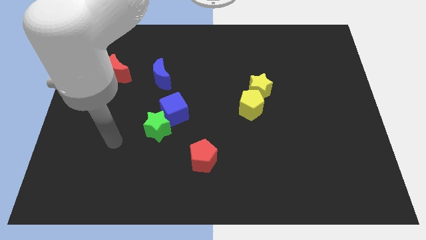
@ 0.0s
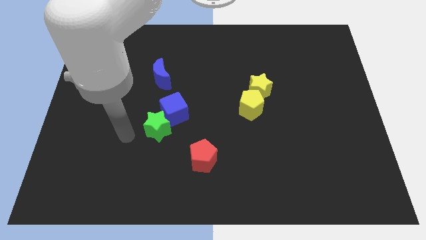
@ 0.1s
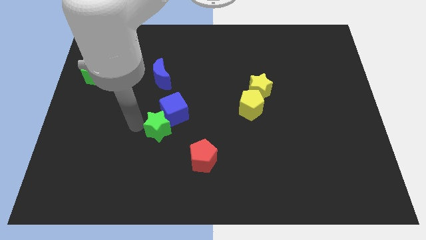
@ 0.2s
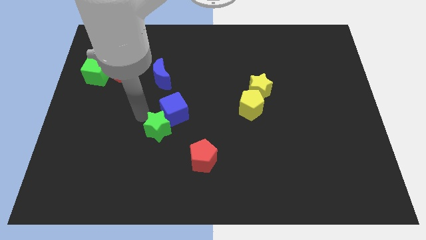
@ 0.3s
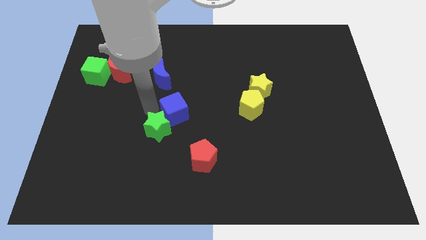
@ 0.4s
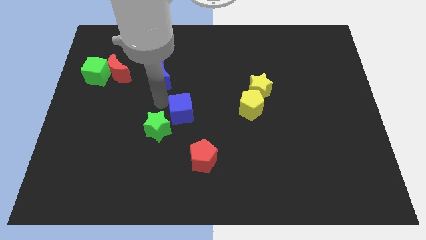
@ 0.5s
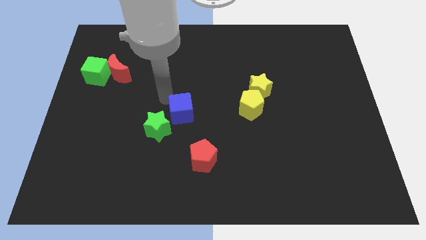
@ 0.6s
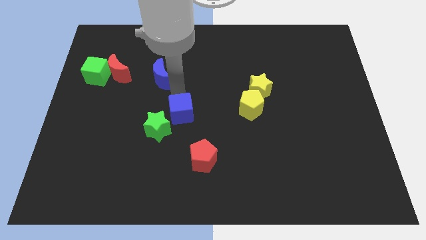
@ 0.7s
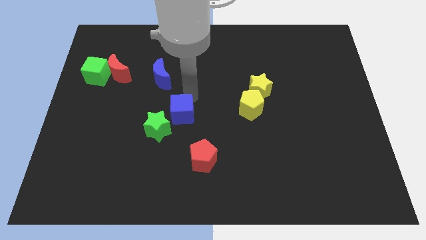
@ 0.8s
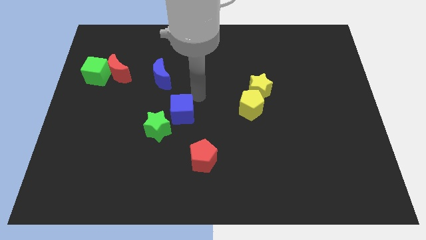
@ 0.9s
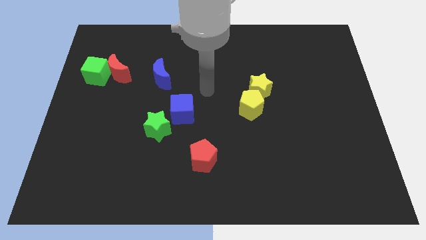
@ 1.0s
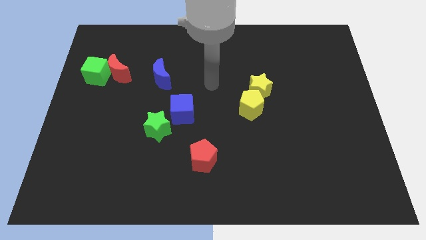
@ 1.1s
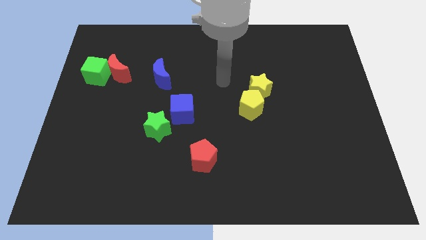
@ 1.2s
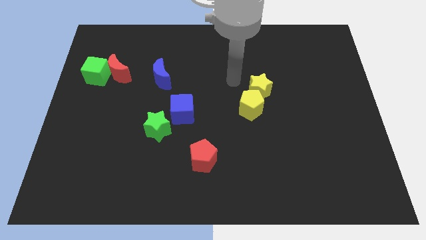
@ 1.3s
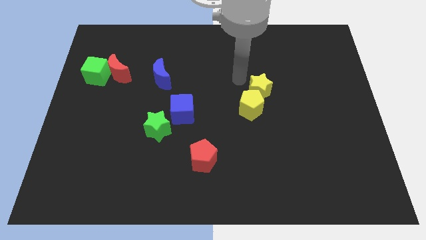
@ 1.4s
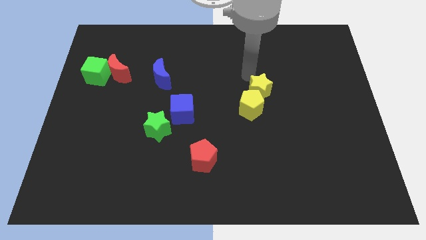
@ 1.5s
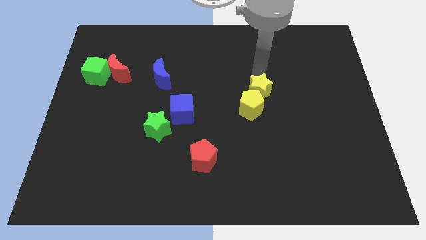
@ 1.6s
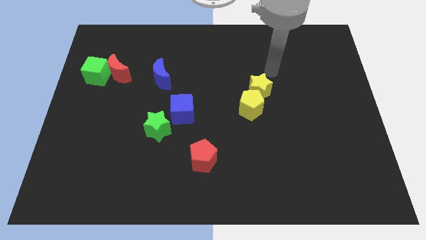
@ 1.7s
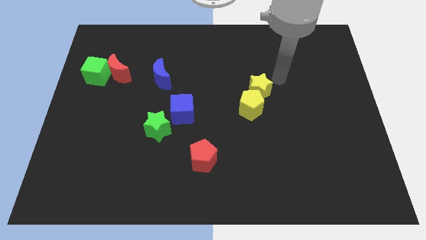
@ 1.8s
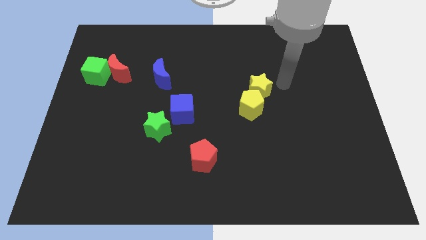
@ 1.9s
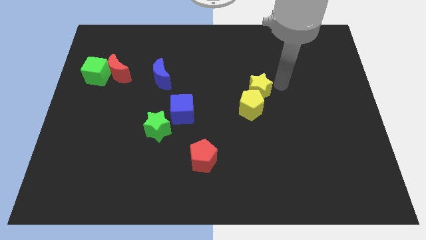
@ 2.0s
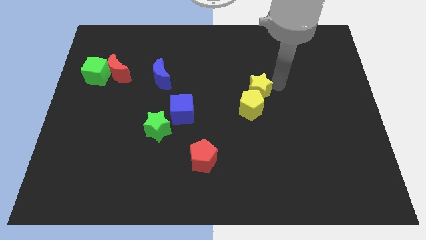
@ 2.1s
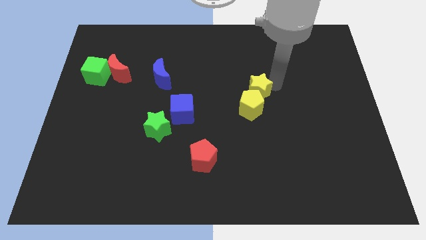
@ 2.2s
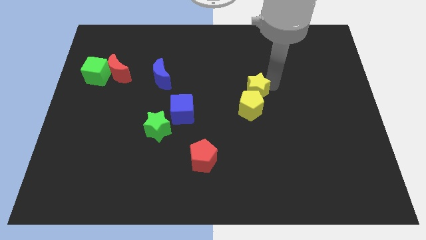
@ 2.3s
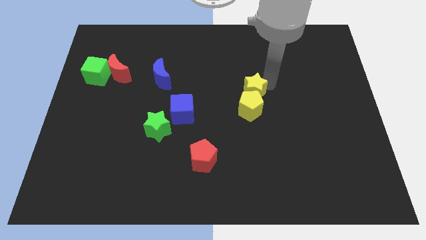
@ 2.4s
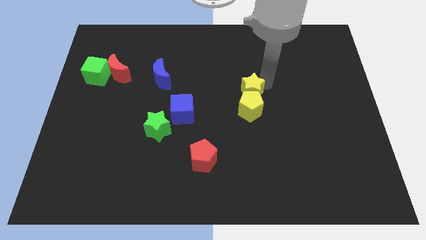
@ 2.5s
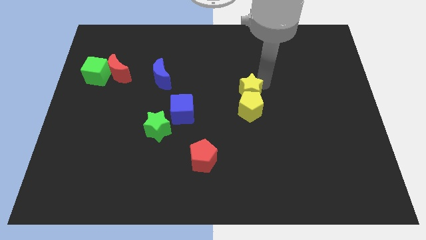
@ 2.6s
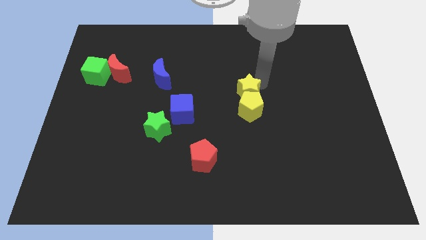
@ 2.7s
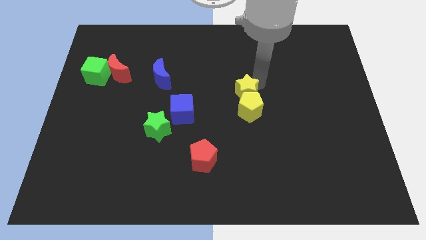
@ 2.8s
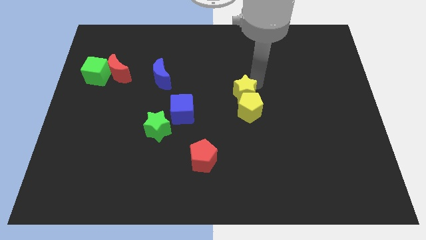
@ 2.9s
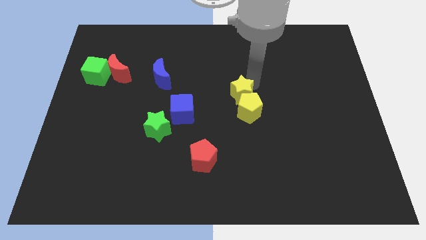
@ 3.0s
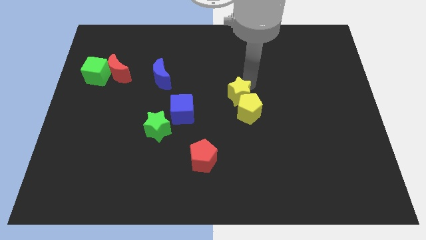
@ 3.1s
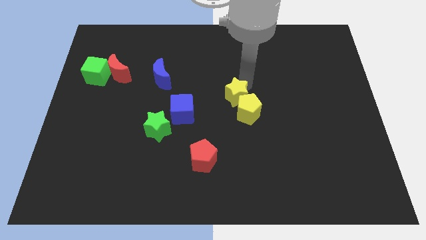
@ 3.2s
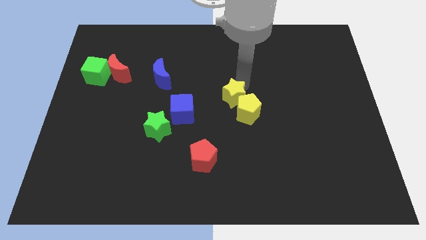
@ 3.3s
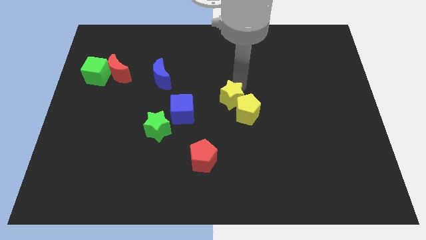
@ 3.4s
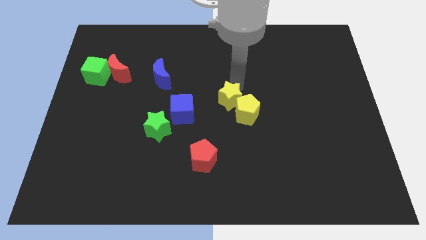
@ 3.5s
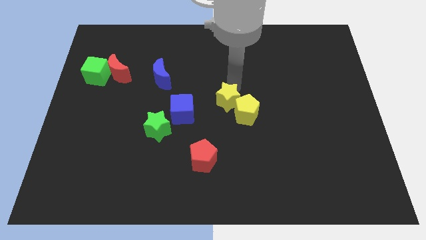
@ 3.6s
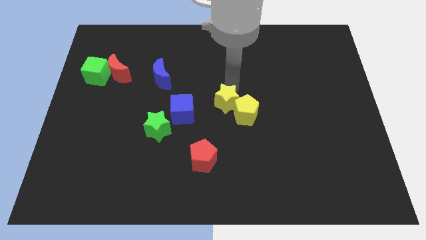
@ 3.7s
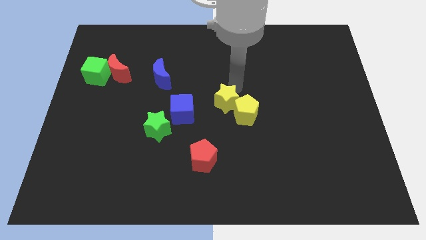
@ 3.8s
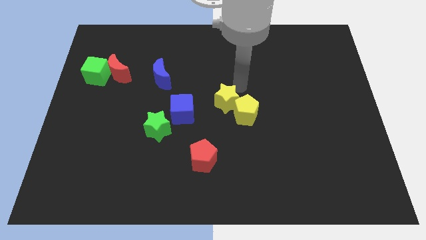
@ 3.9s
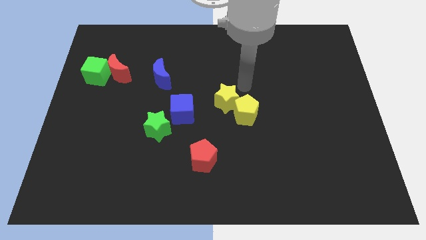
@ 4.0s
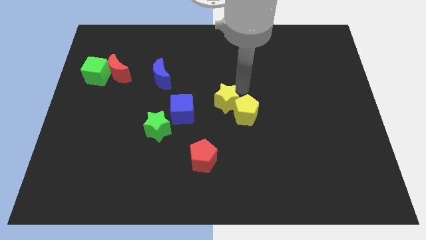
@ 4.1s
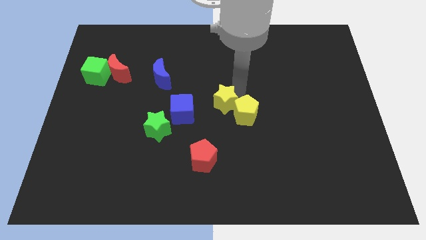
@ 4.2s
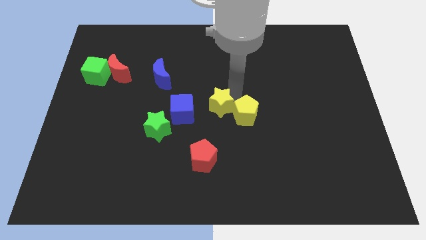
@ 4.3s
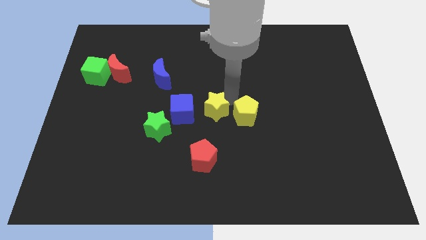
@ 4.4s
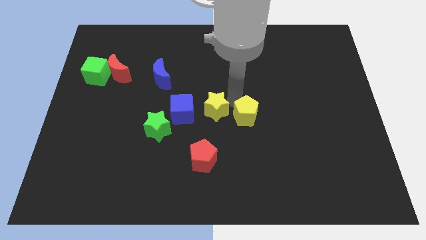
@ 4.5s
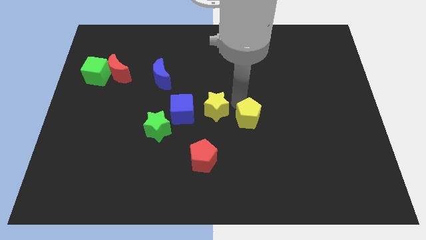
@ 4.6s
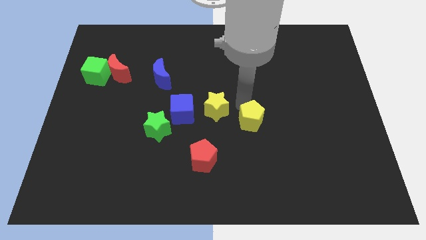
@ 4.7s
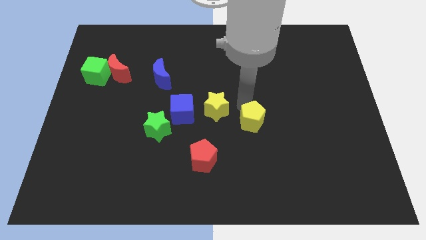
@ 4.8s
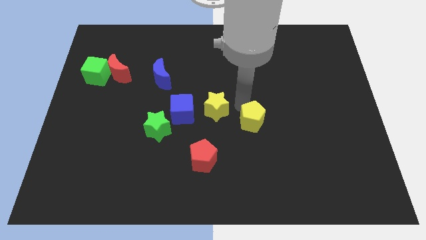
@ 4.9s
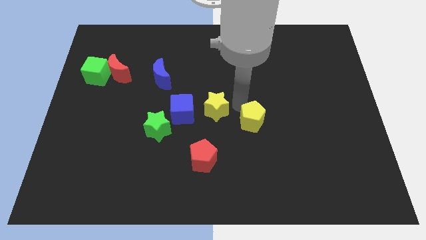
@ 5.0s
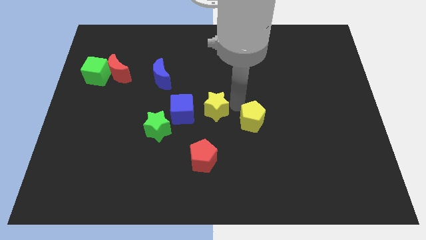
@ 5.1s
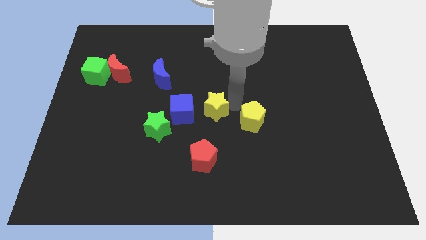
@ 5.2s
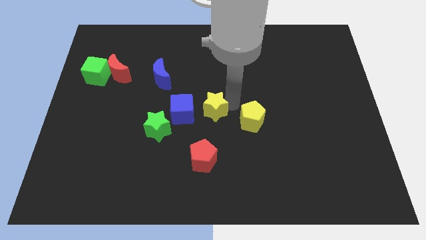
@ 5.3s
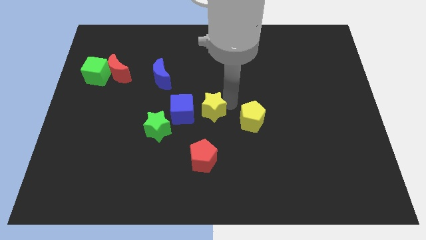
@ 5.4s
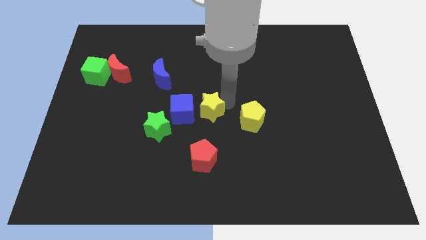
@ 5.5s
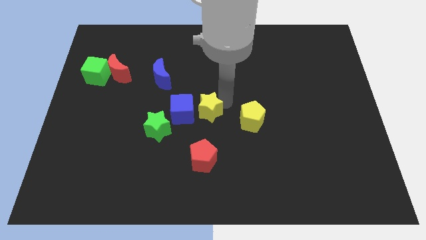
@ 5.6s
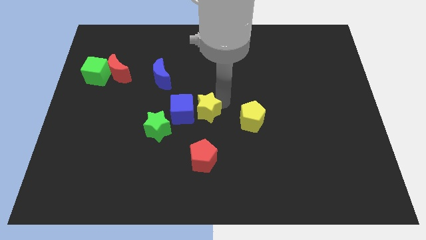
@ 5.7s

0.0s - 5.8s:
put the yellow star next to the blue cube

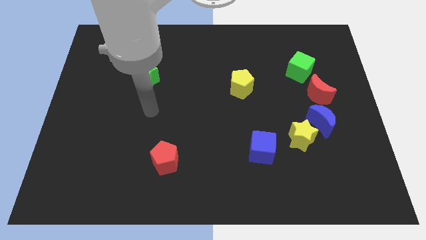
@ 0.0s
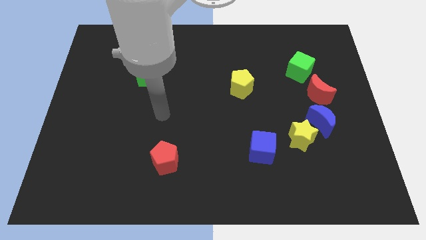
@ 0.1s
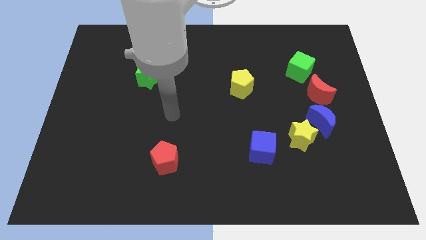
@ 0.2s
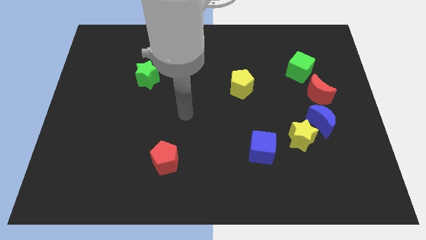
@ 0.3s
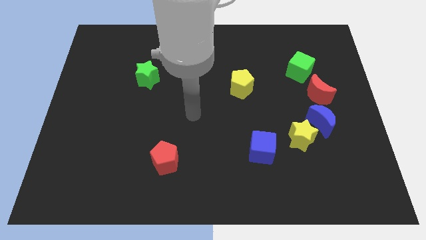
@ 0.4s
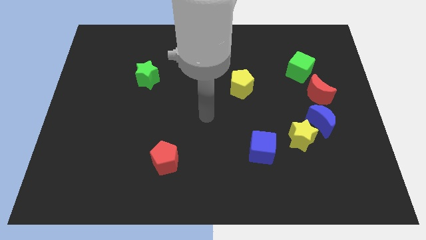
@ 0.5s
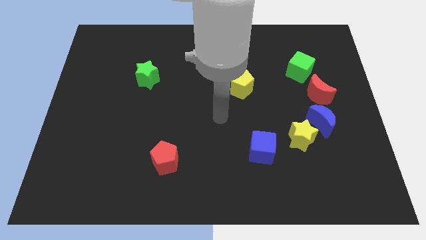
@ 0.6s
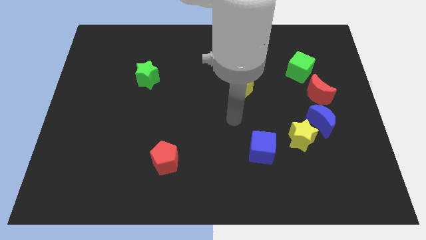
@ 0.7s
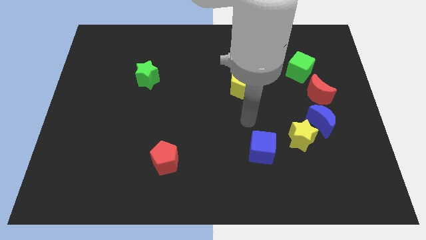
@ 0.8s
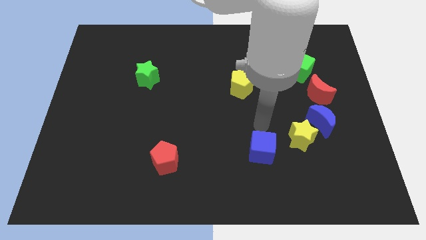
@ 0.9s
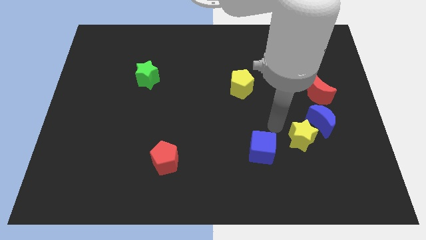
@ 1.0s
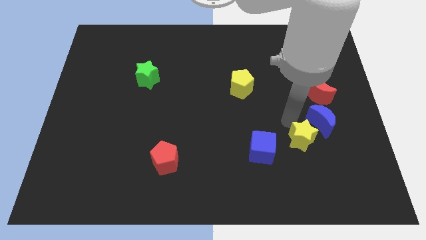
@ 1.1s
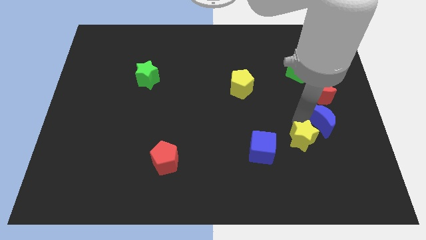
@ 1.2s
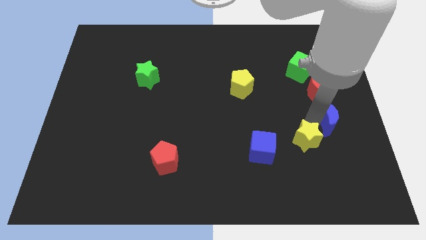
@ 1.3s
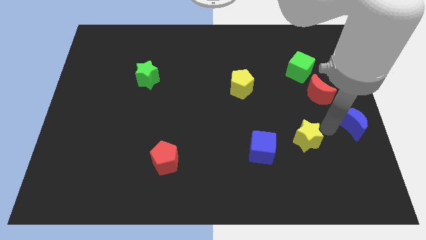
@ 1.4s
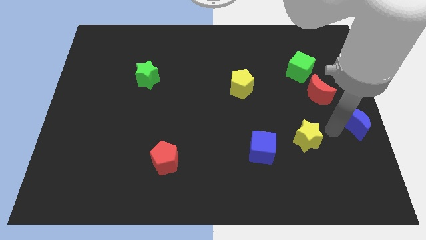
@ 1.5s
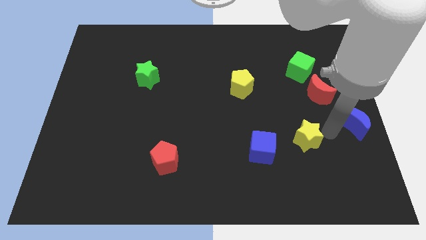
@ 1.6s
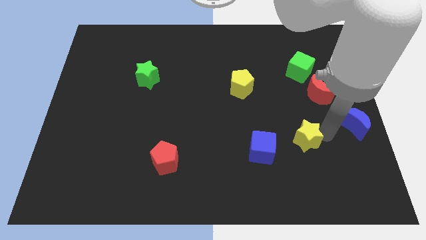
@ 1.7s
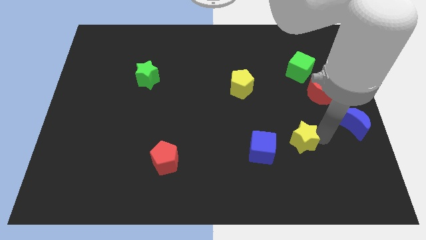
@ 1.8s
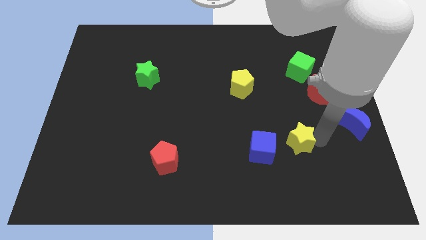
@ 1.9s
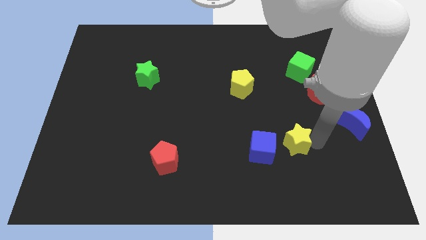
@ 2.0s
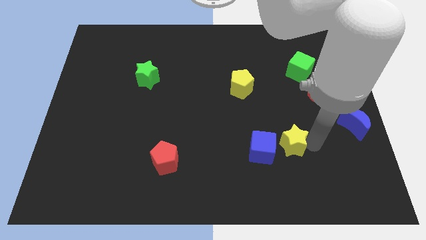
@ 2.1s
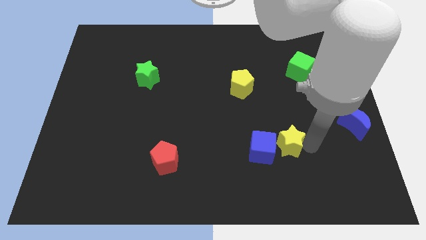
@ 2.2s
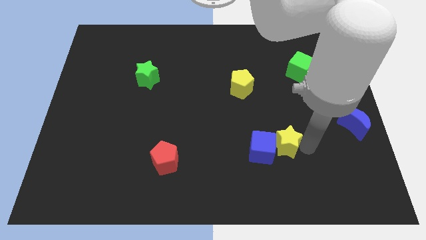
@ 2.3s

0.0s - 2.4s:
slide the yellow star close to the blue cube

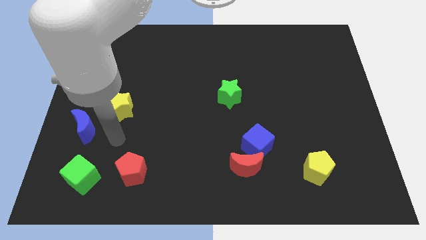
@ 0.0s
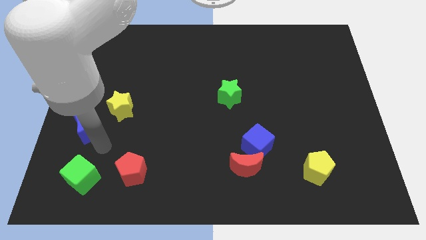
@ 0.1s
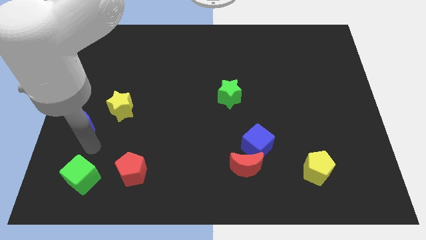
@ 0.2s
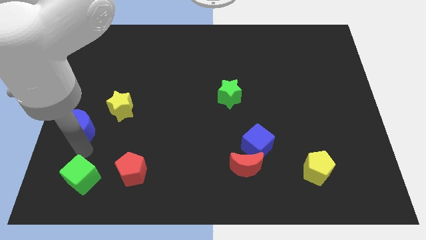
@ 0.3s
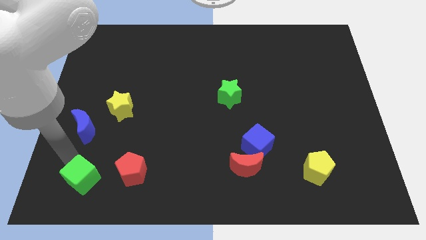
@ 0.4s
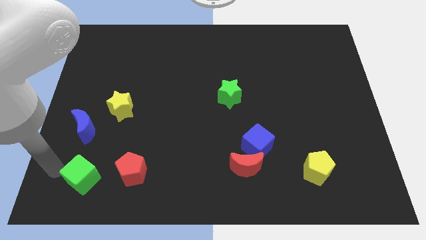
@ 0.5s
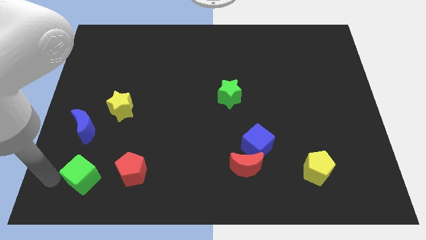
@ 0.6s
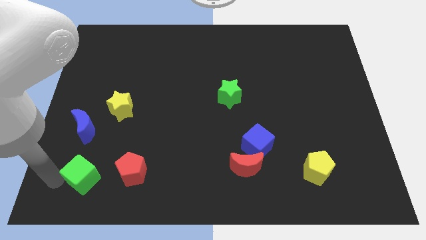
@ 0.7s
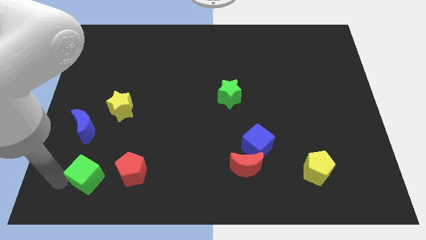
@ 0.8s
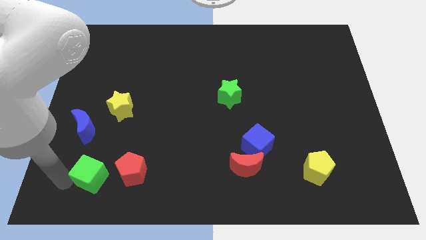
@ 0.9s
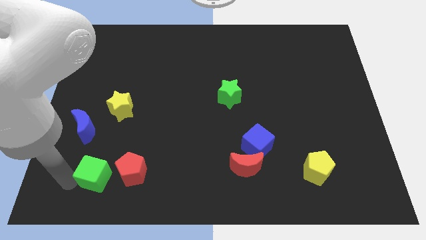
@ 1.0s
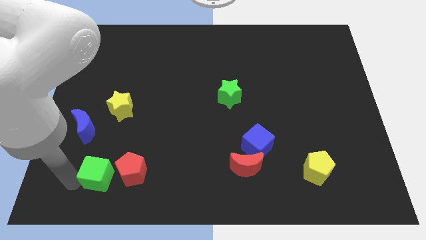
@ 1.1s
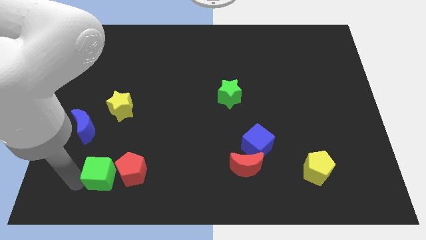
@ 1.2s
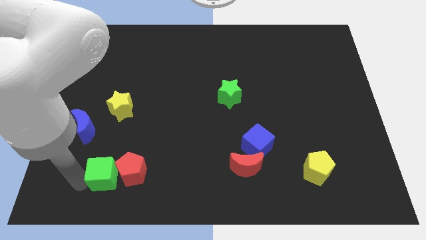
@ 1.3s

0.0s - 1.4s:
put the green cube next to the red pentagon
